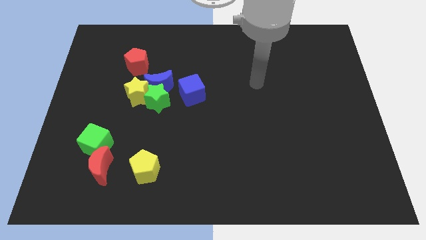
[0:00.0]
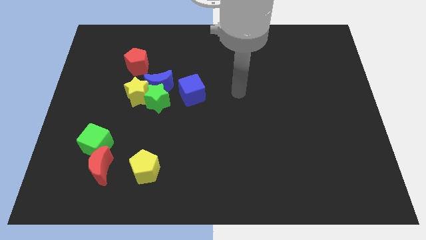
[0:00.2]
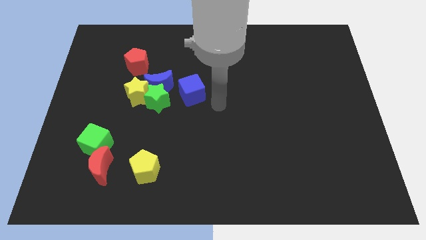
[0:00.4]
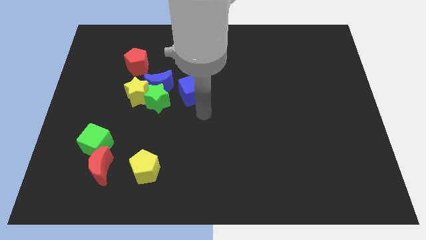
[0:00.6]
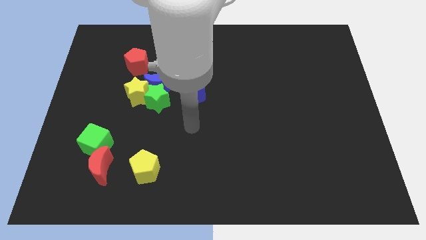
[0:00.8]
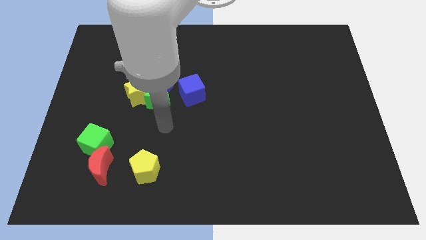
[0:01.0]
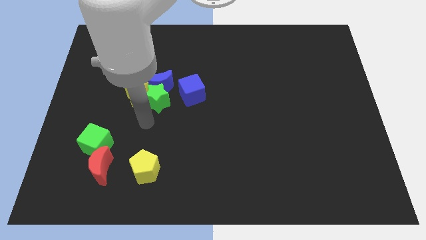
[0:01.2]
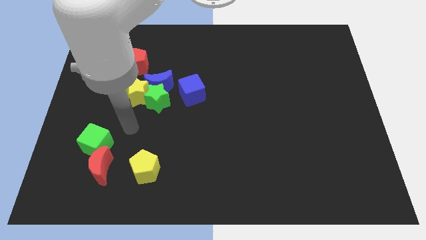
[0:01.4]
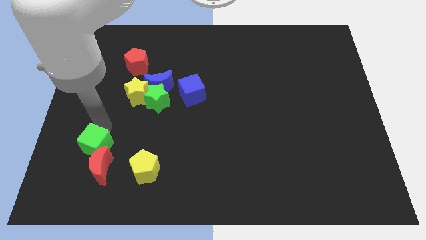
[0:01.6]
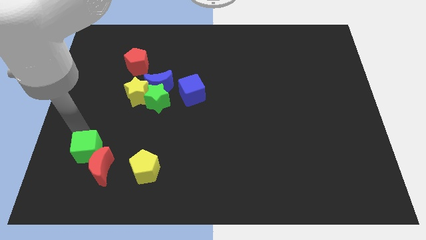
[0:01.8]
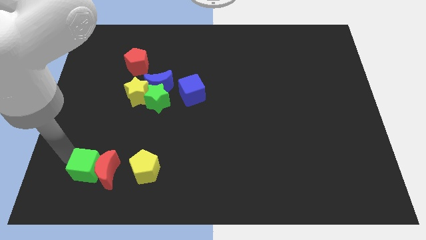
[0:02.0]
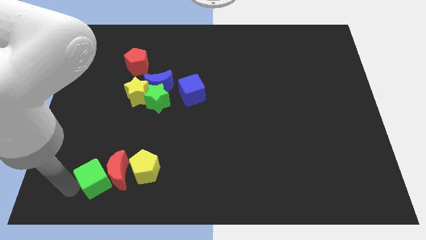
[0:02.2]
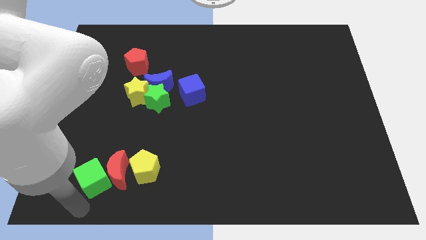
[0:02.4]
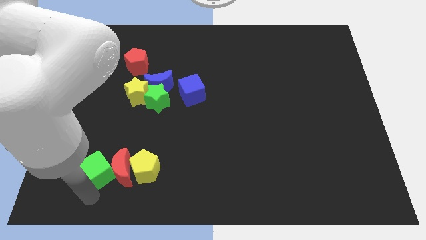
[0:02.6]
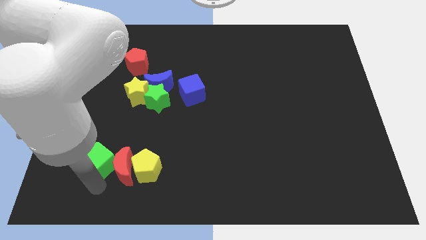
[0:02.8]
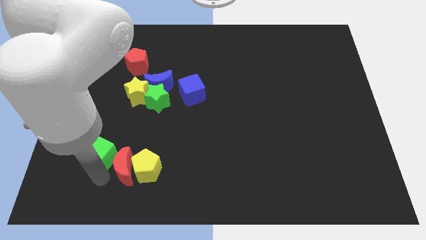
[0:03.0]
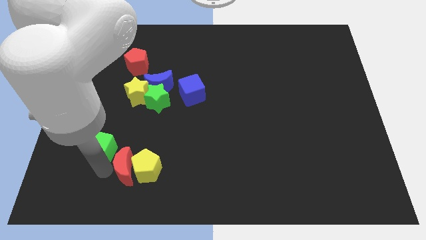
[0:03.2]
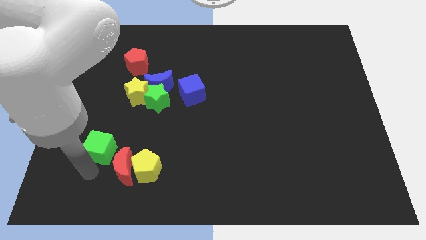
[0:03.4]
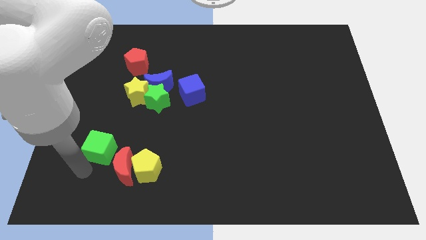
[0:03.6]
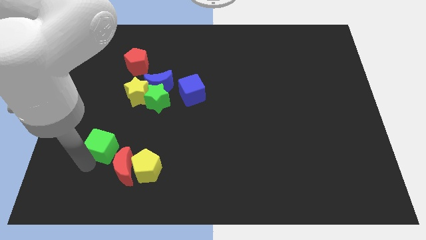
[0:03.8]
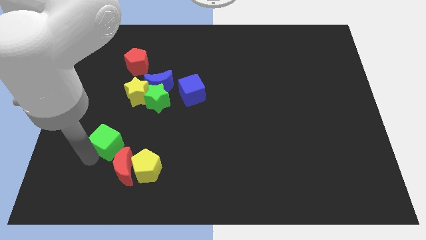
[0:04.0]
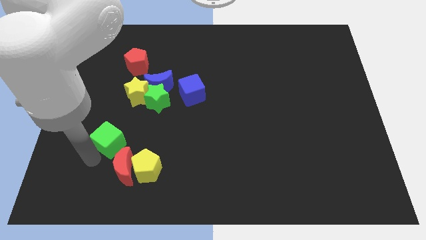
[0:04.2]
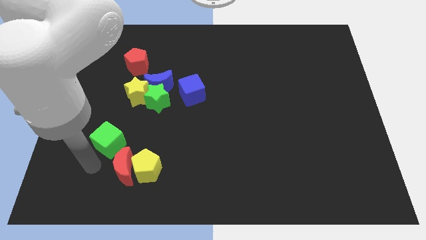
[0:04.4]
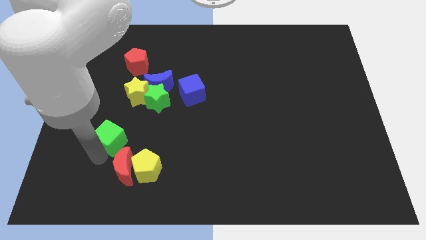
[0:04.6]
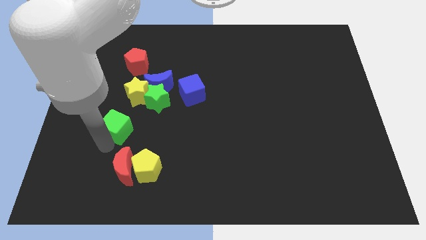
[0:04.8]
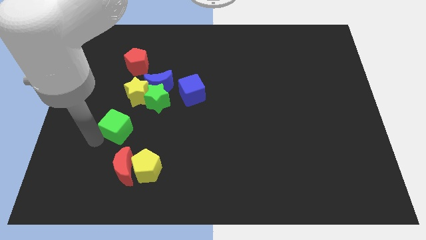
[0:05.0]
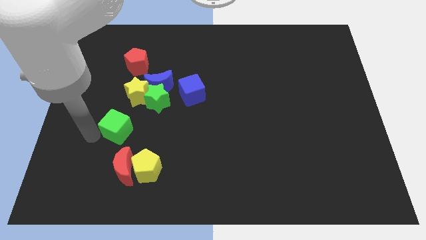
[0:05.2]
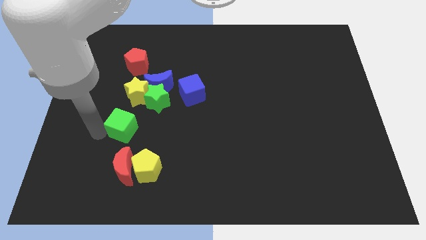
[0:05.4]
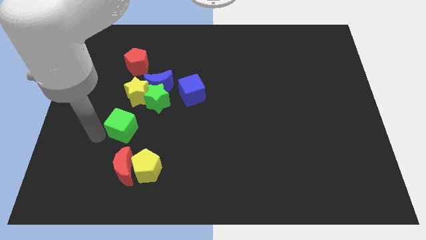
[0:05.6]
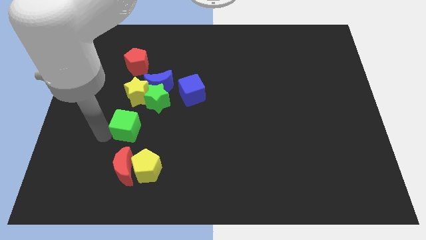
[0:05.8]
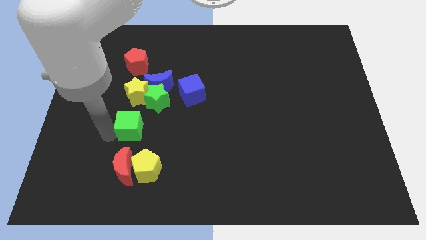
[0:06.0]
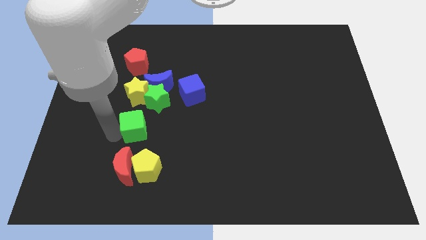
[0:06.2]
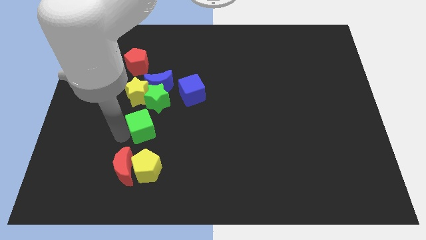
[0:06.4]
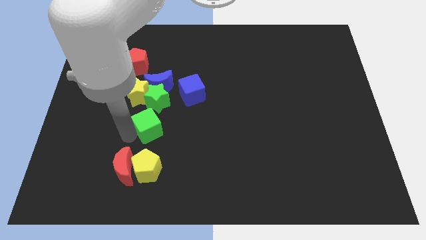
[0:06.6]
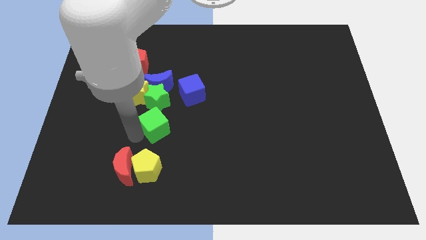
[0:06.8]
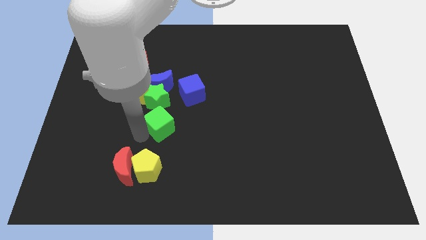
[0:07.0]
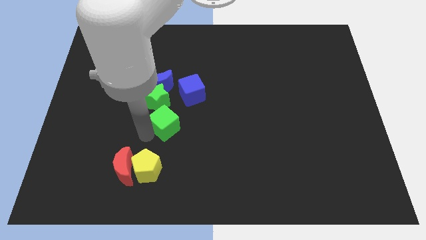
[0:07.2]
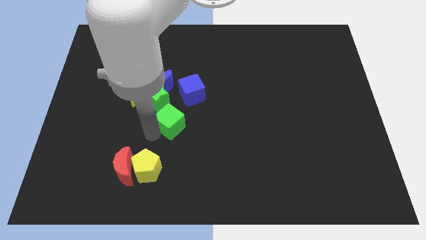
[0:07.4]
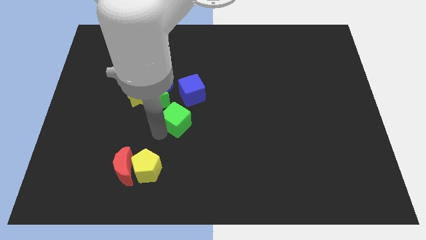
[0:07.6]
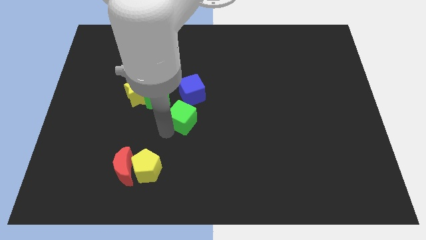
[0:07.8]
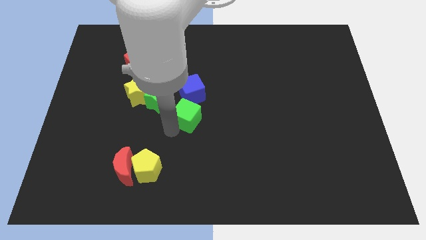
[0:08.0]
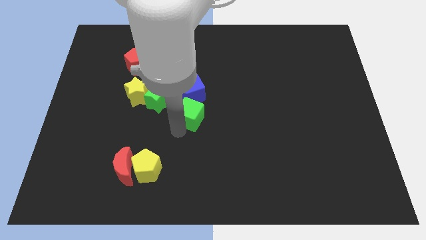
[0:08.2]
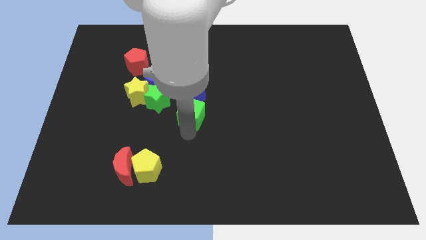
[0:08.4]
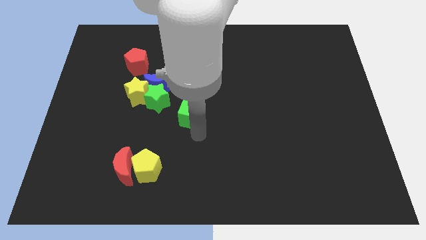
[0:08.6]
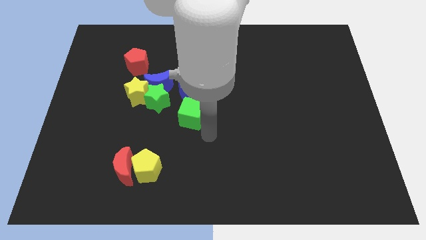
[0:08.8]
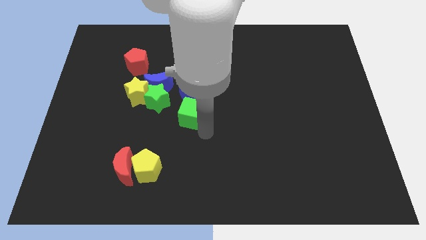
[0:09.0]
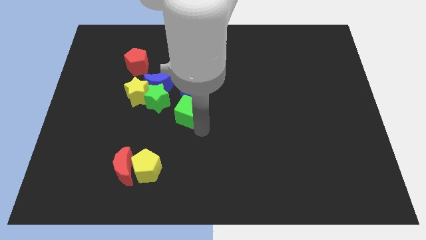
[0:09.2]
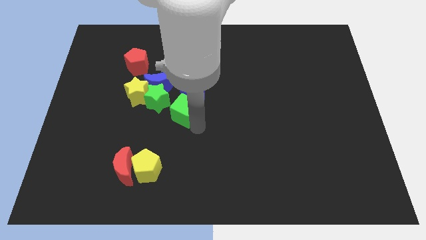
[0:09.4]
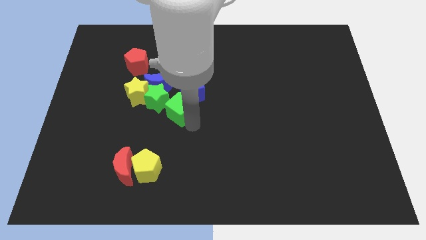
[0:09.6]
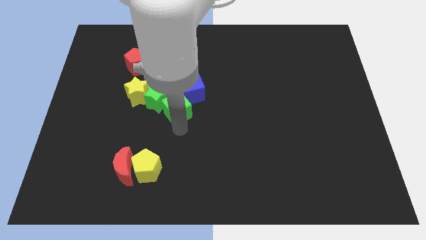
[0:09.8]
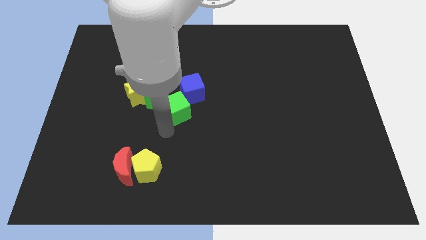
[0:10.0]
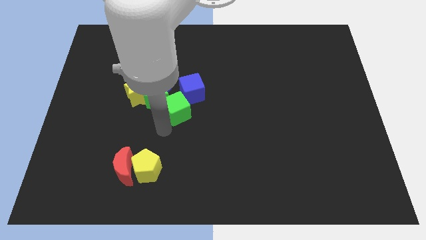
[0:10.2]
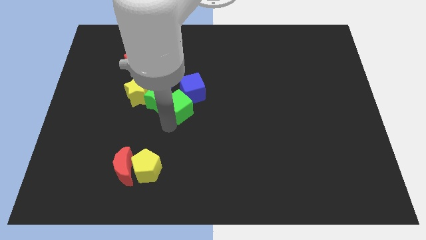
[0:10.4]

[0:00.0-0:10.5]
push the green cube next to the blue cube

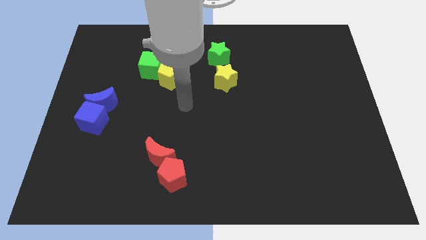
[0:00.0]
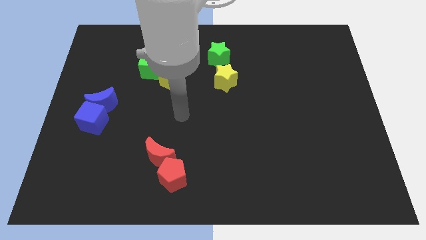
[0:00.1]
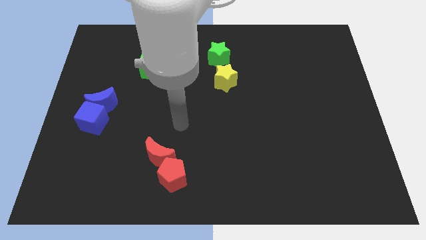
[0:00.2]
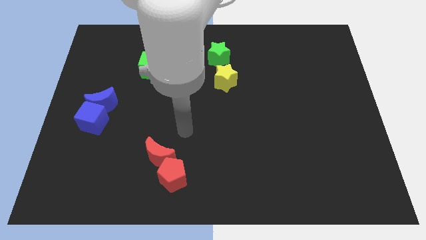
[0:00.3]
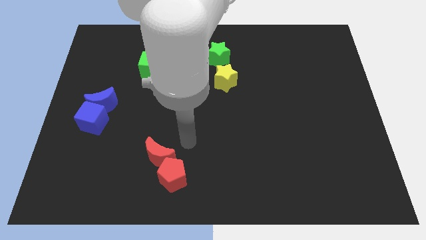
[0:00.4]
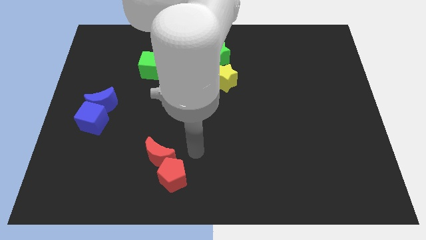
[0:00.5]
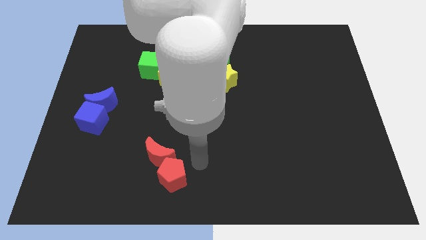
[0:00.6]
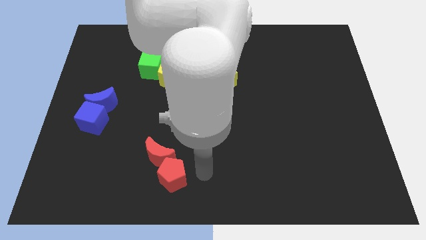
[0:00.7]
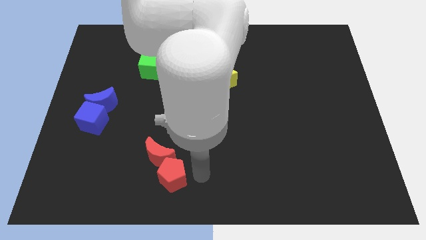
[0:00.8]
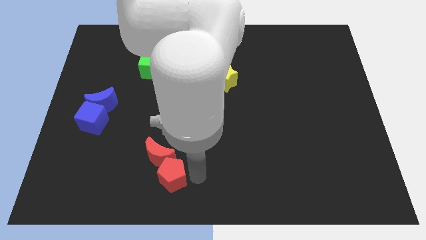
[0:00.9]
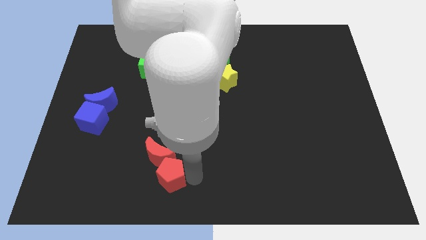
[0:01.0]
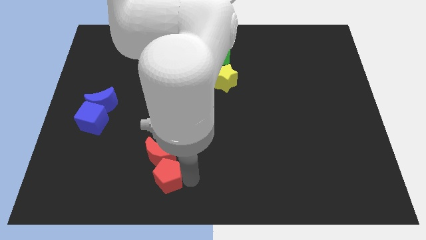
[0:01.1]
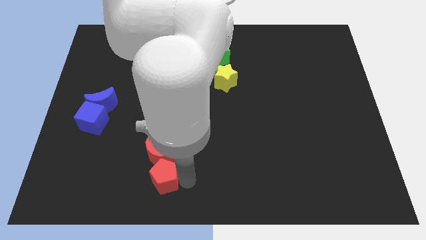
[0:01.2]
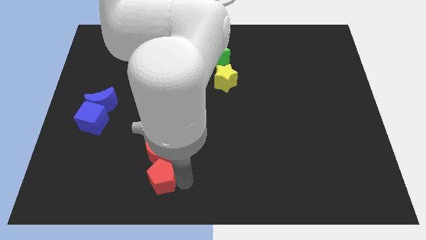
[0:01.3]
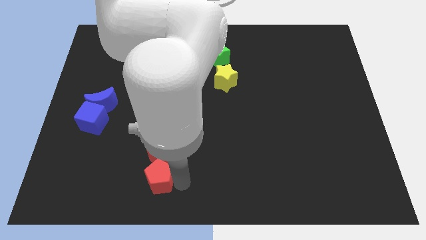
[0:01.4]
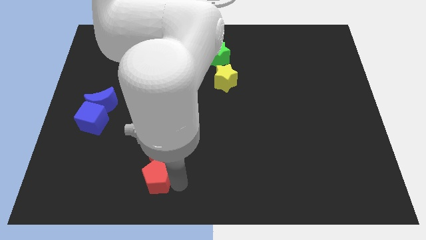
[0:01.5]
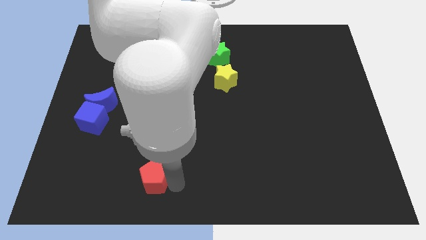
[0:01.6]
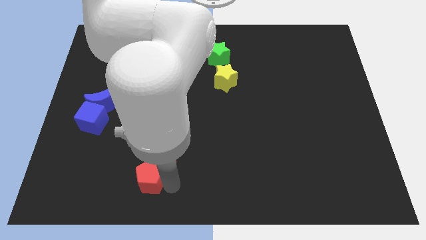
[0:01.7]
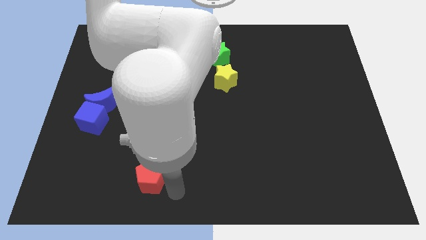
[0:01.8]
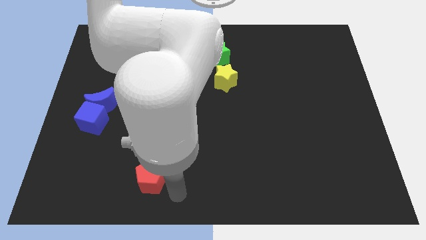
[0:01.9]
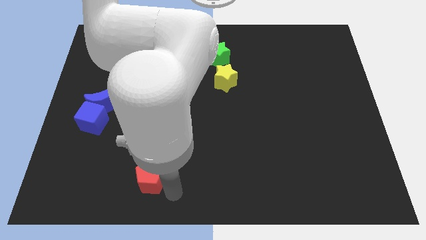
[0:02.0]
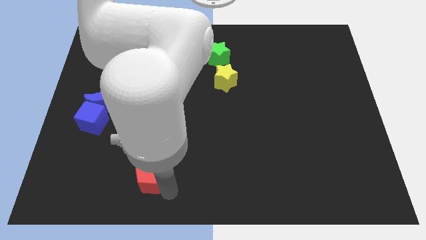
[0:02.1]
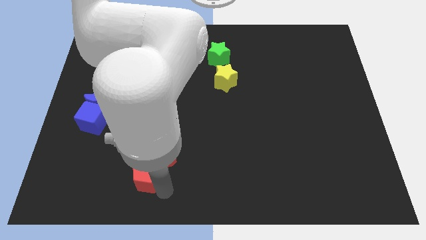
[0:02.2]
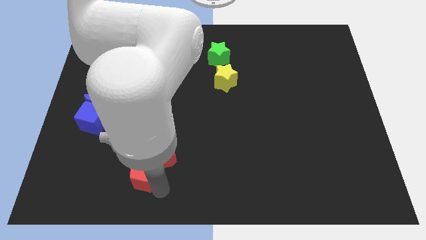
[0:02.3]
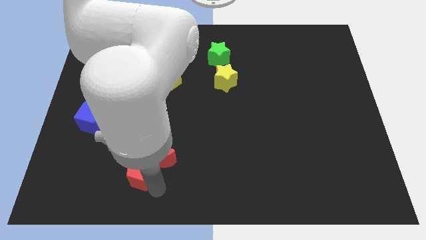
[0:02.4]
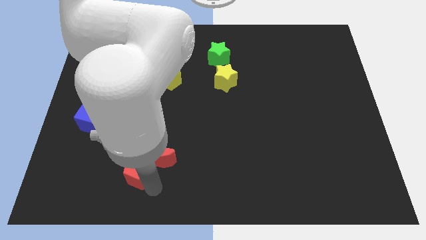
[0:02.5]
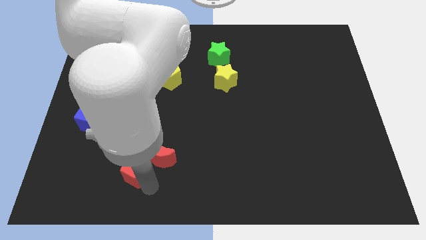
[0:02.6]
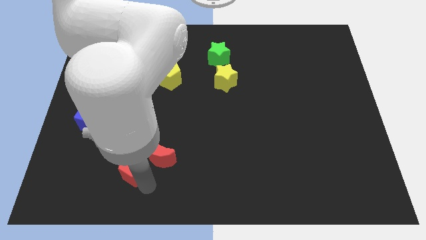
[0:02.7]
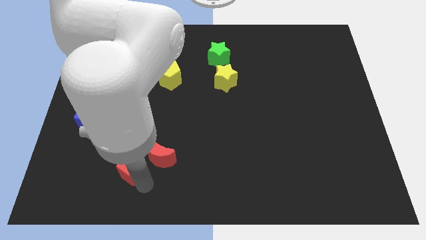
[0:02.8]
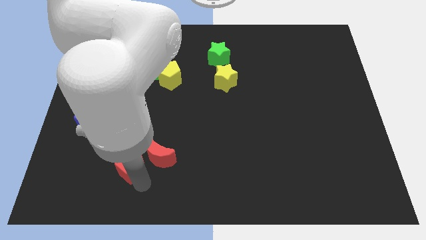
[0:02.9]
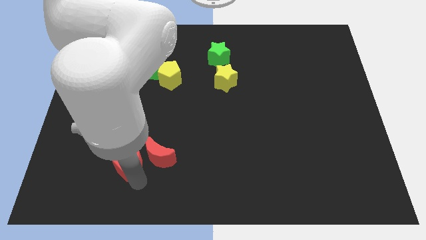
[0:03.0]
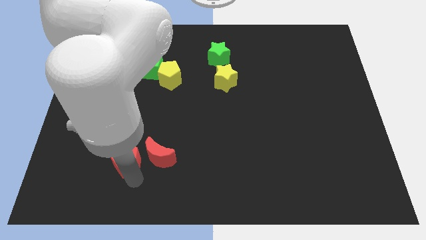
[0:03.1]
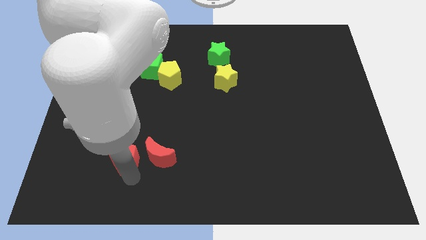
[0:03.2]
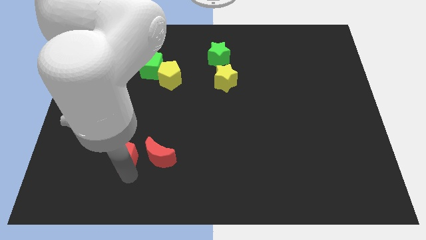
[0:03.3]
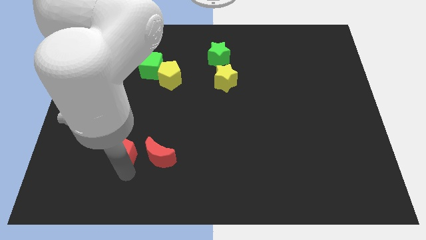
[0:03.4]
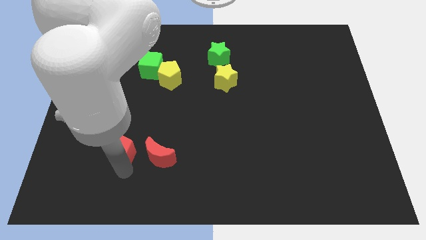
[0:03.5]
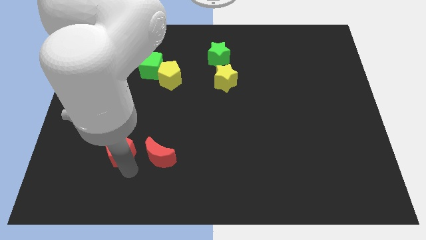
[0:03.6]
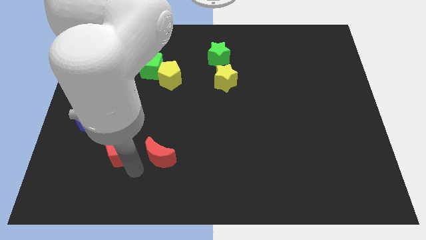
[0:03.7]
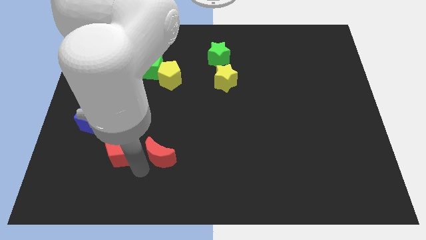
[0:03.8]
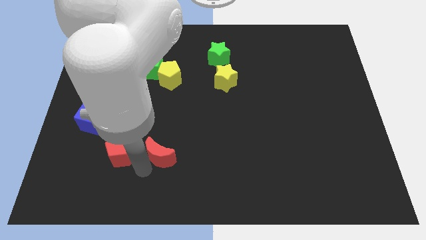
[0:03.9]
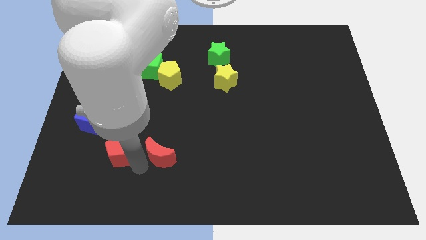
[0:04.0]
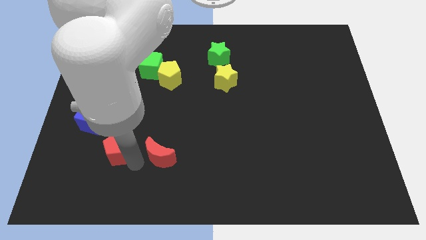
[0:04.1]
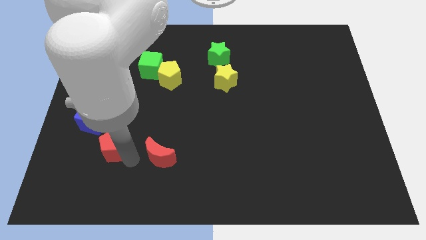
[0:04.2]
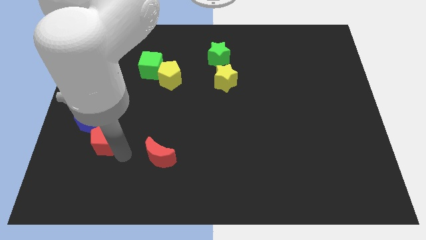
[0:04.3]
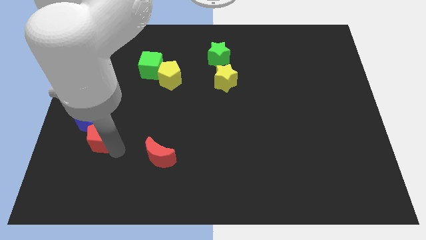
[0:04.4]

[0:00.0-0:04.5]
slide the red pentagon next to the blue cube
